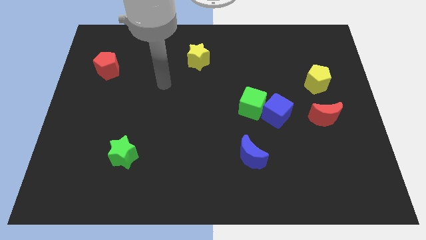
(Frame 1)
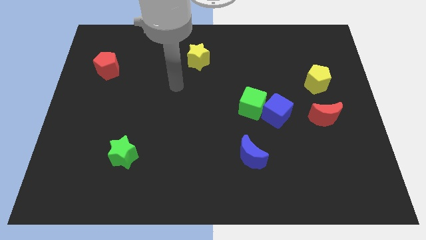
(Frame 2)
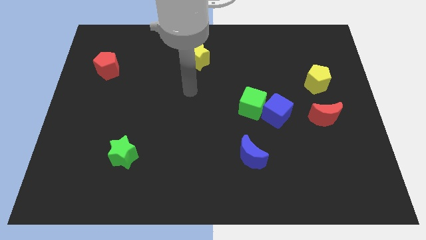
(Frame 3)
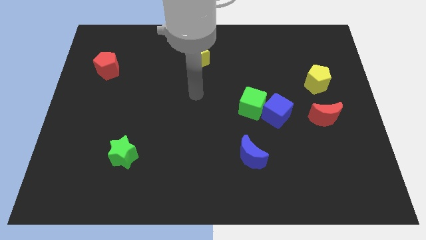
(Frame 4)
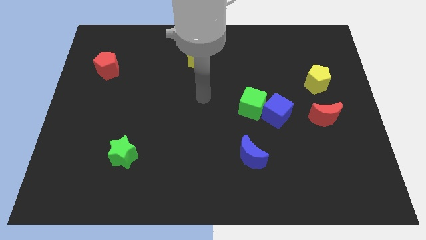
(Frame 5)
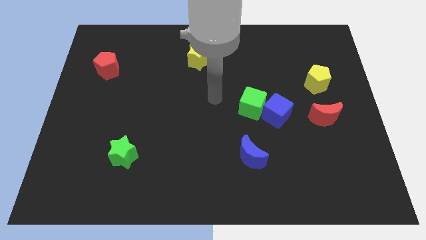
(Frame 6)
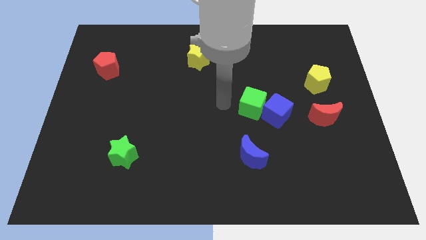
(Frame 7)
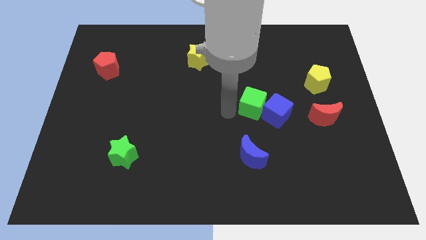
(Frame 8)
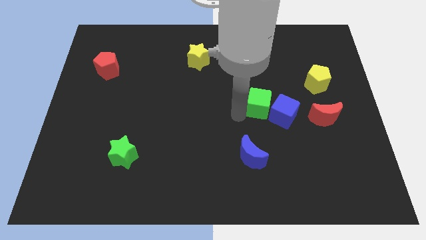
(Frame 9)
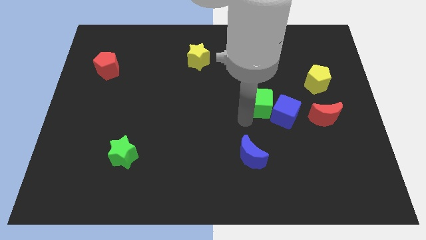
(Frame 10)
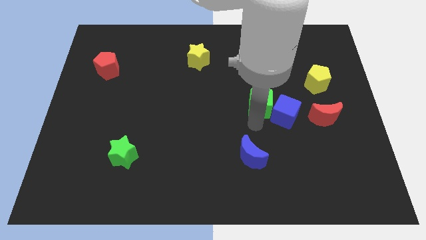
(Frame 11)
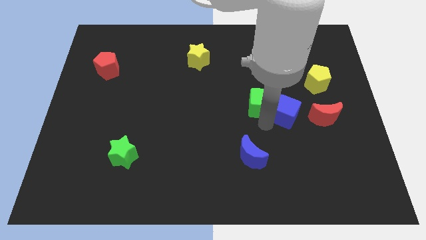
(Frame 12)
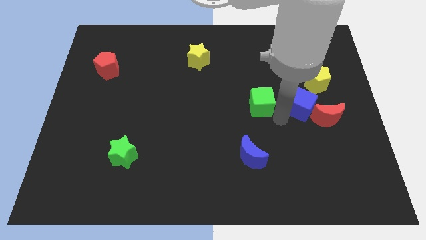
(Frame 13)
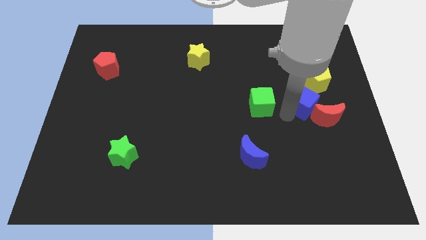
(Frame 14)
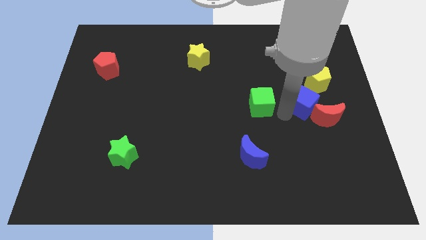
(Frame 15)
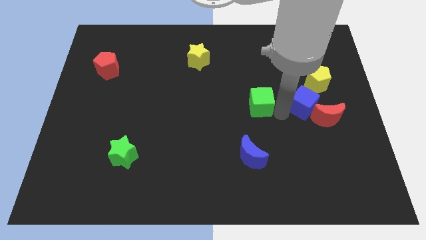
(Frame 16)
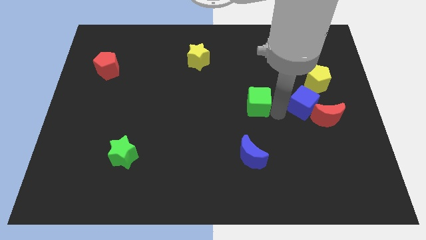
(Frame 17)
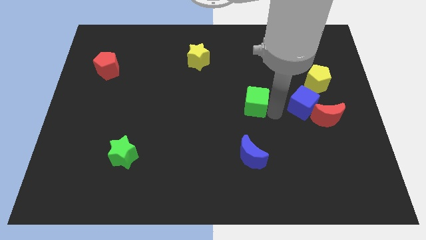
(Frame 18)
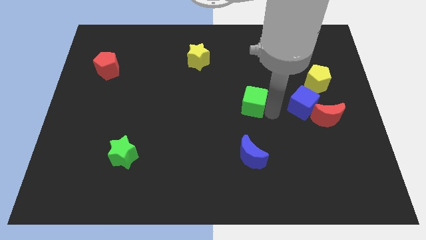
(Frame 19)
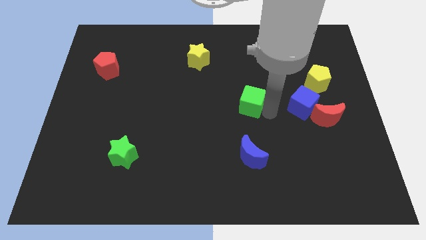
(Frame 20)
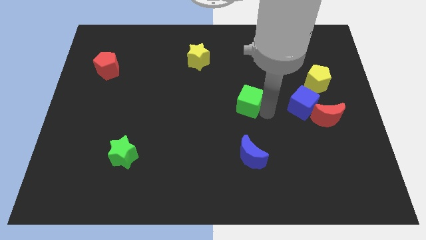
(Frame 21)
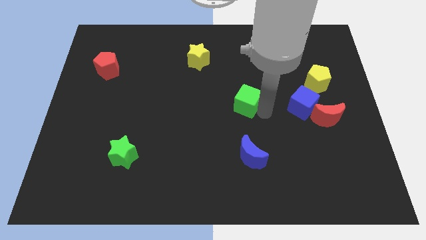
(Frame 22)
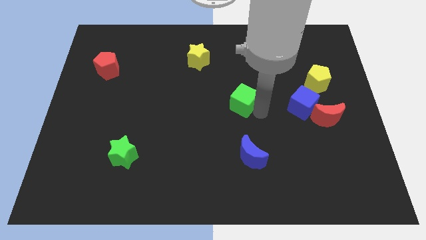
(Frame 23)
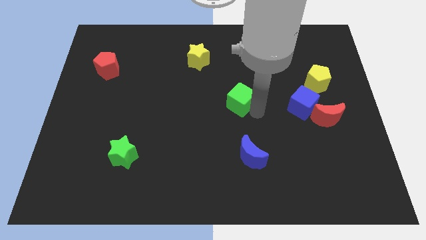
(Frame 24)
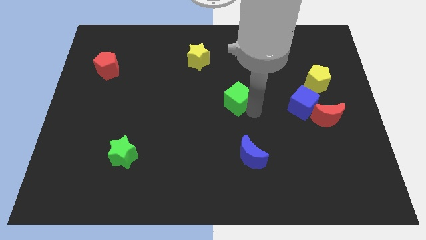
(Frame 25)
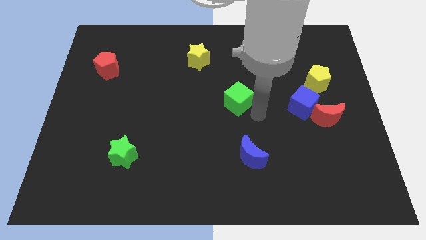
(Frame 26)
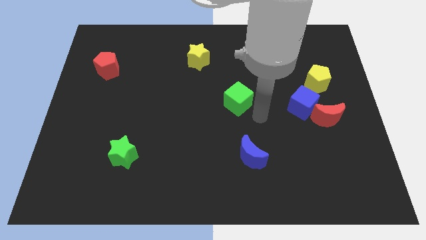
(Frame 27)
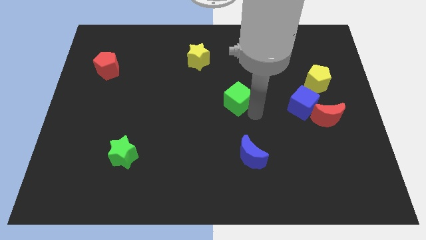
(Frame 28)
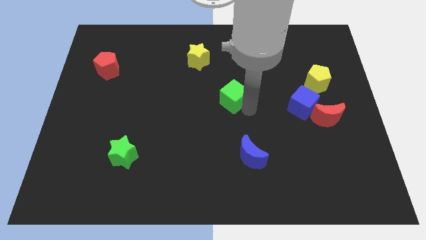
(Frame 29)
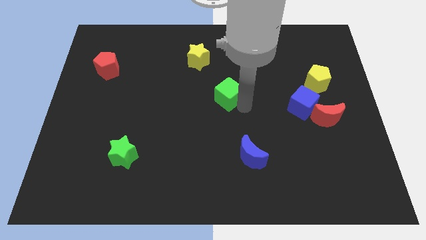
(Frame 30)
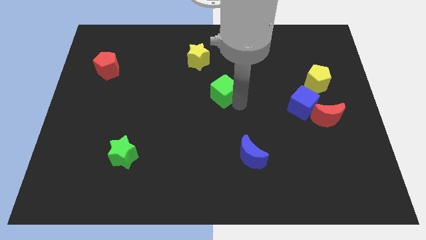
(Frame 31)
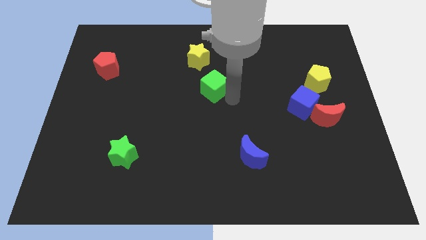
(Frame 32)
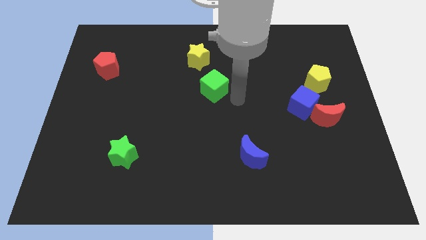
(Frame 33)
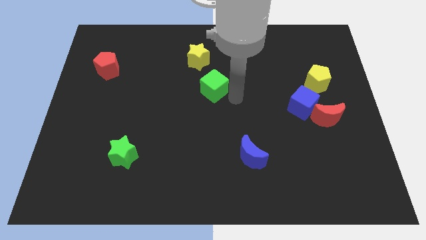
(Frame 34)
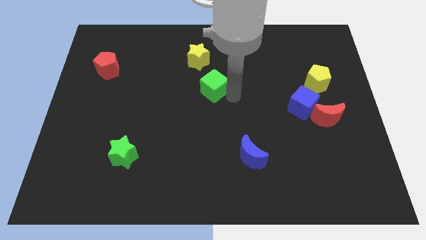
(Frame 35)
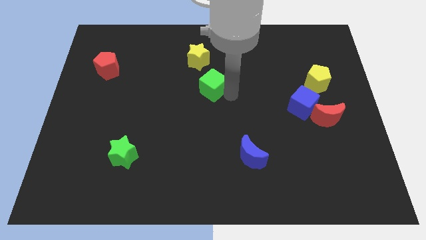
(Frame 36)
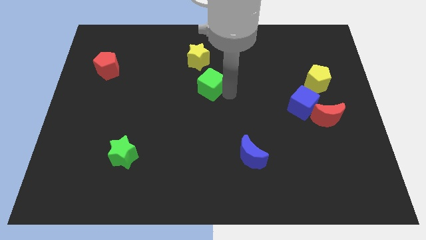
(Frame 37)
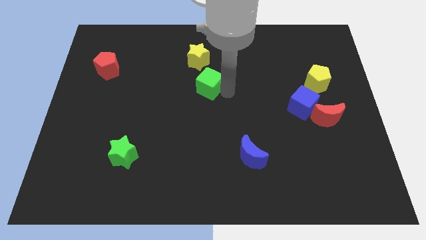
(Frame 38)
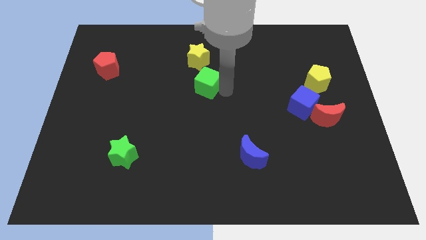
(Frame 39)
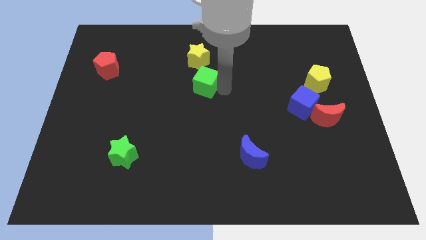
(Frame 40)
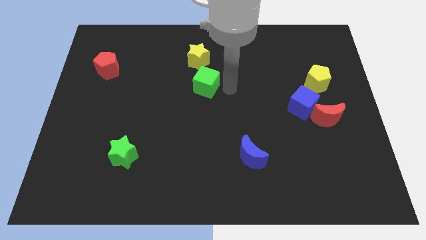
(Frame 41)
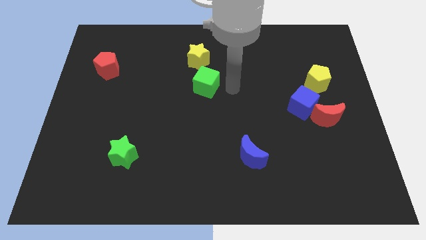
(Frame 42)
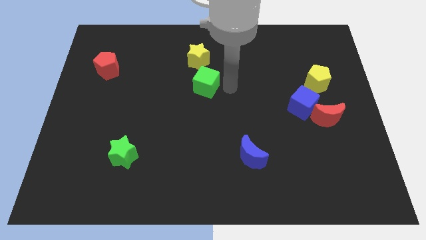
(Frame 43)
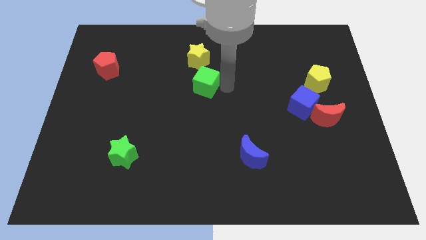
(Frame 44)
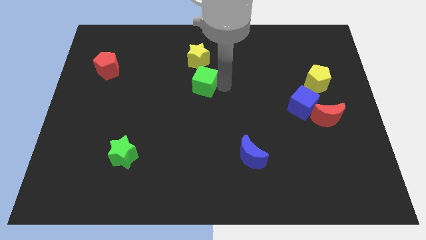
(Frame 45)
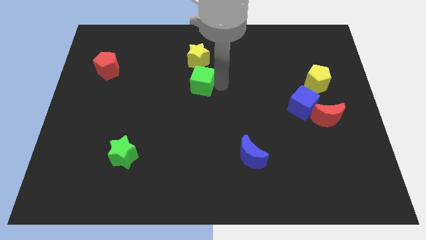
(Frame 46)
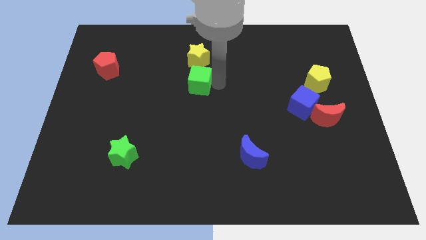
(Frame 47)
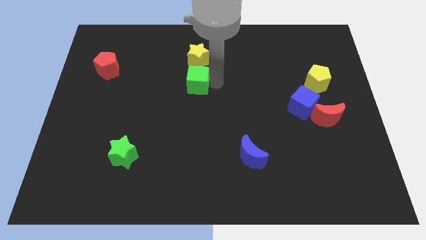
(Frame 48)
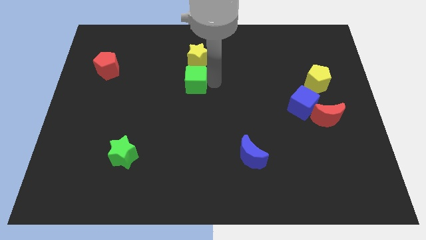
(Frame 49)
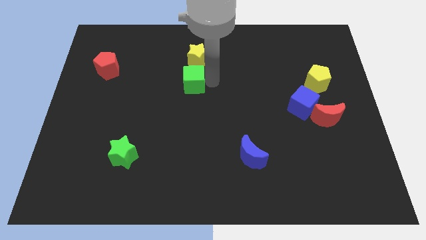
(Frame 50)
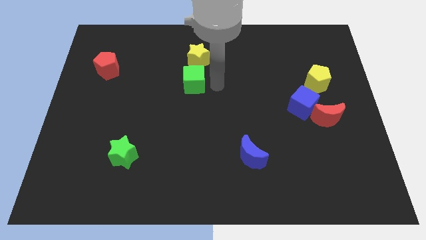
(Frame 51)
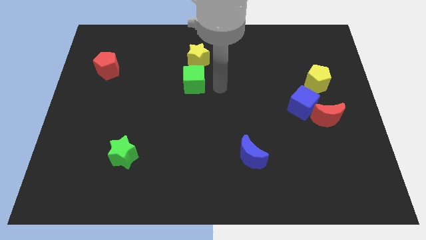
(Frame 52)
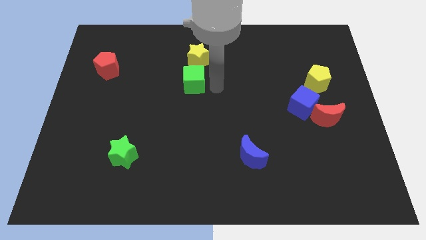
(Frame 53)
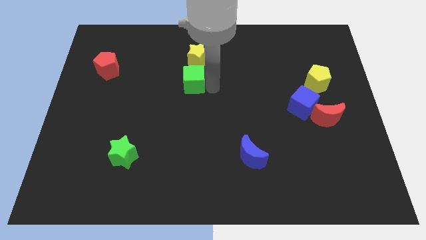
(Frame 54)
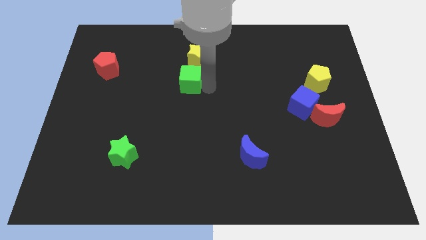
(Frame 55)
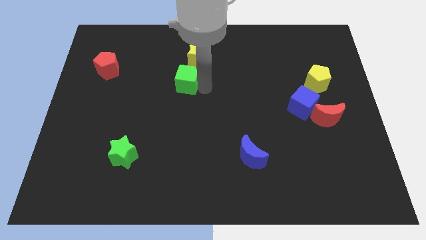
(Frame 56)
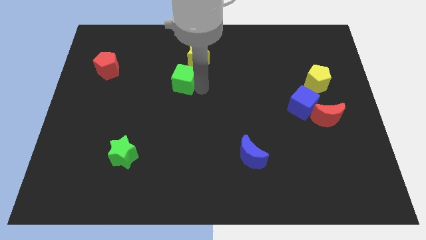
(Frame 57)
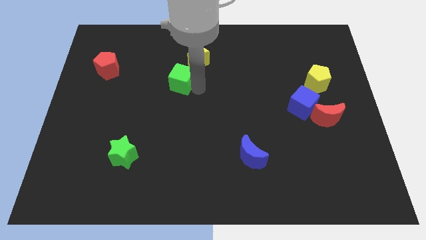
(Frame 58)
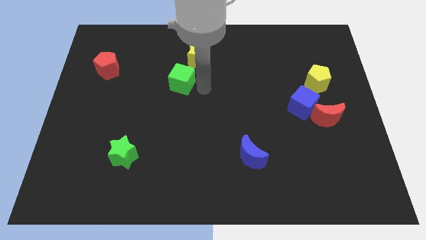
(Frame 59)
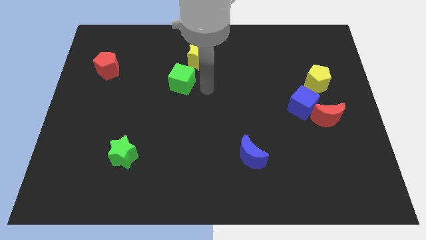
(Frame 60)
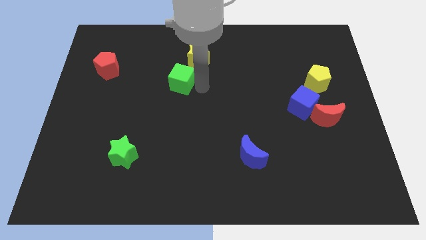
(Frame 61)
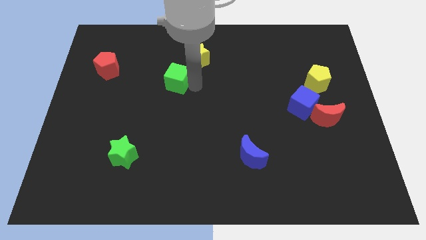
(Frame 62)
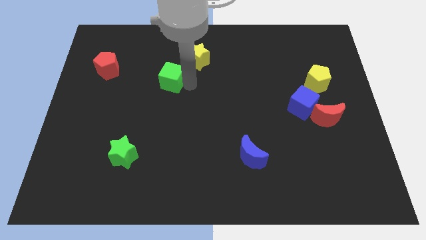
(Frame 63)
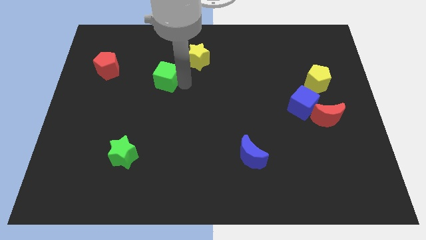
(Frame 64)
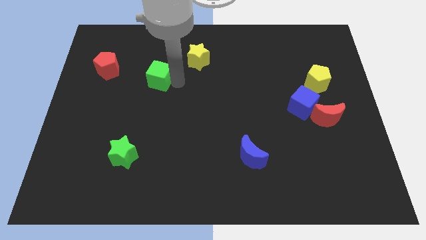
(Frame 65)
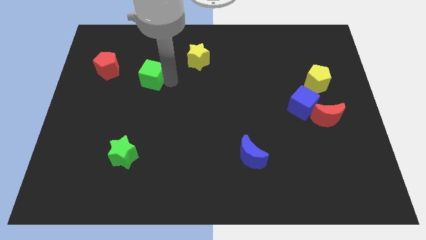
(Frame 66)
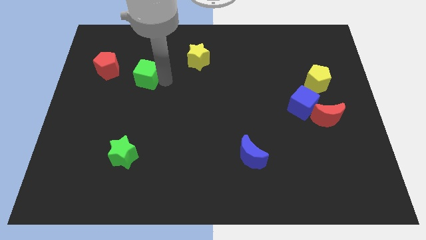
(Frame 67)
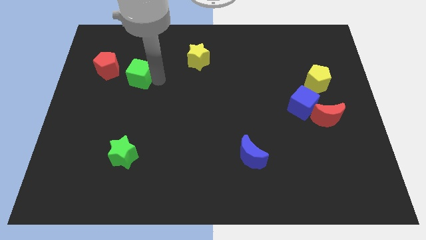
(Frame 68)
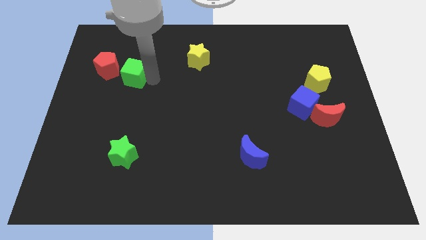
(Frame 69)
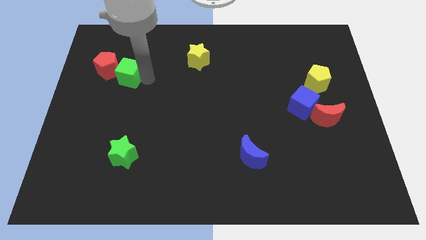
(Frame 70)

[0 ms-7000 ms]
push the green cube to the red pentagon

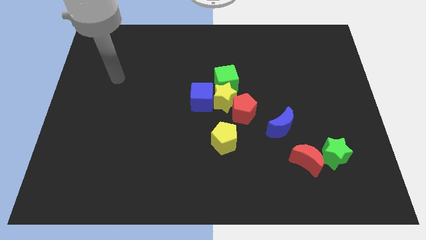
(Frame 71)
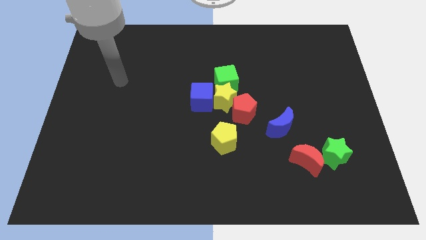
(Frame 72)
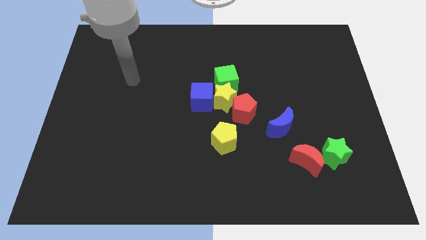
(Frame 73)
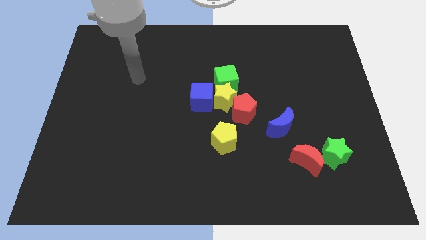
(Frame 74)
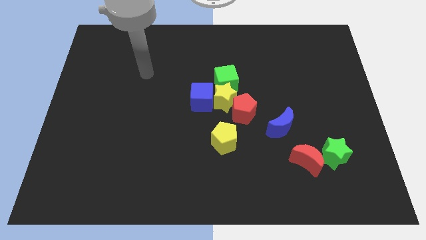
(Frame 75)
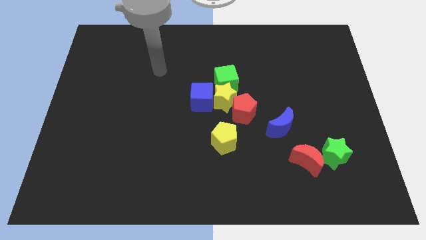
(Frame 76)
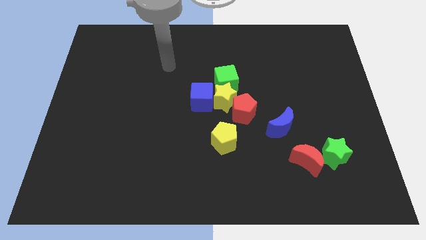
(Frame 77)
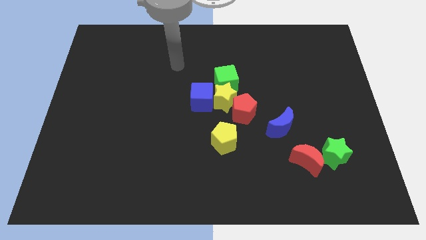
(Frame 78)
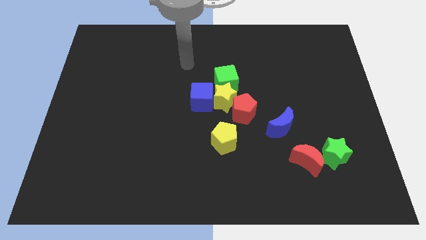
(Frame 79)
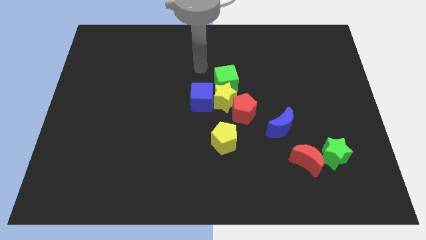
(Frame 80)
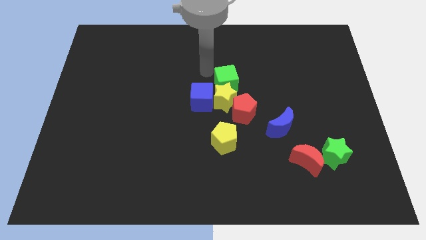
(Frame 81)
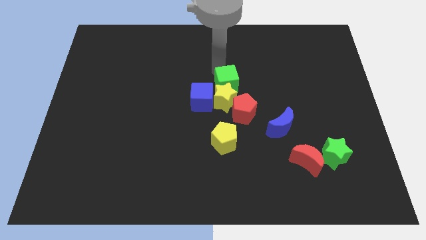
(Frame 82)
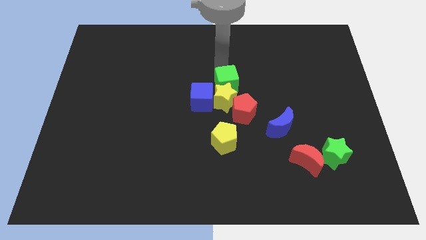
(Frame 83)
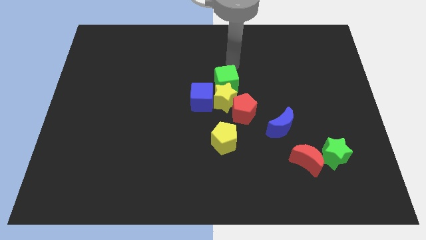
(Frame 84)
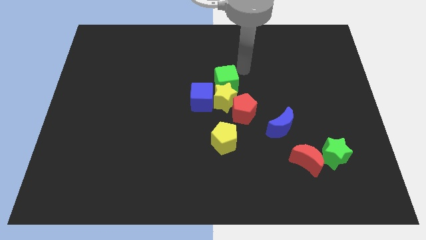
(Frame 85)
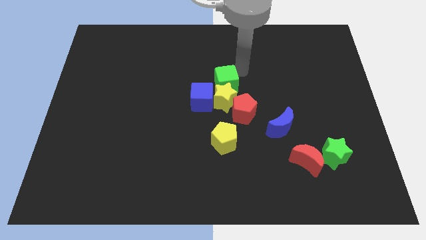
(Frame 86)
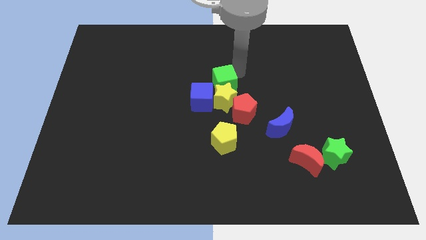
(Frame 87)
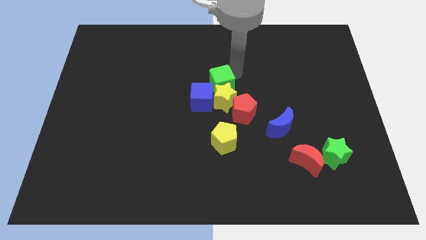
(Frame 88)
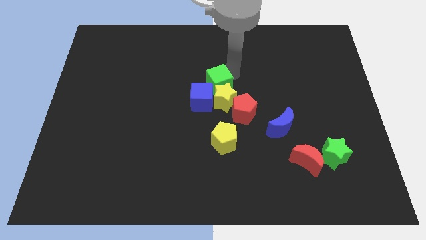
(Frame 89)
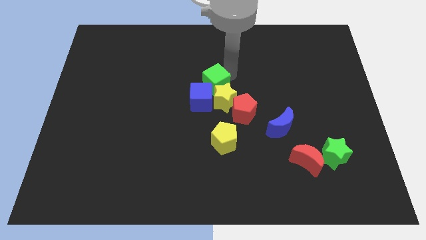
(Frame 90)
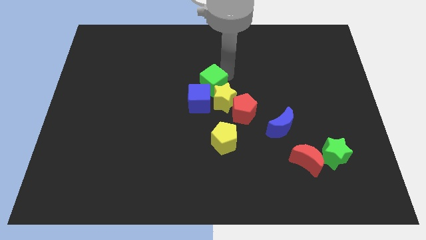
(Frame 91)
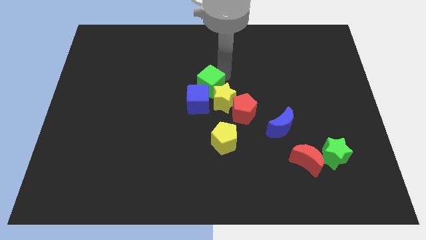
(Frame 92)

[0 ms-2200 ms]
put the green cube close to the blue cube
